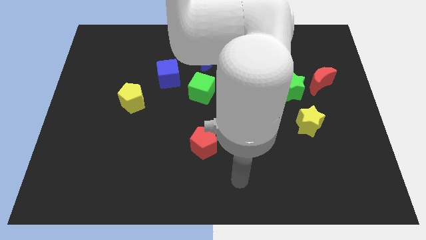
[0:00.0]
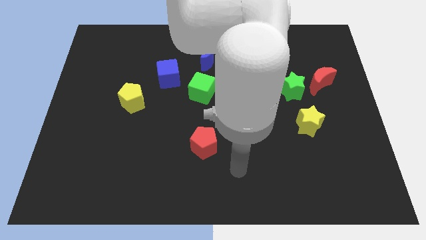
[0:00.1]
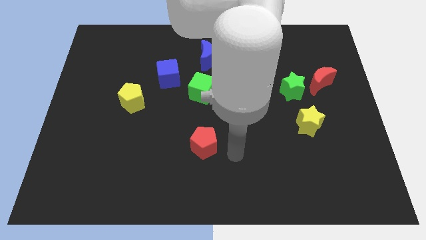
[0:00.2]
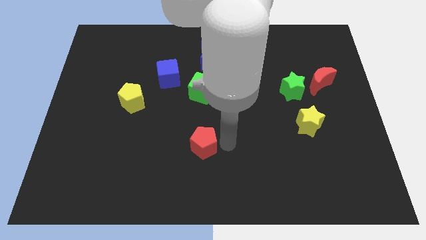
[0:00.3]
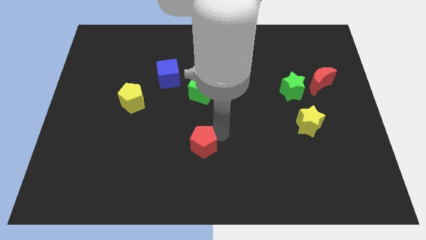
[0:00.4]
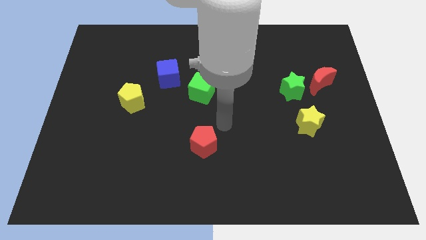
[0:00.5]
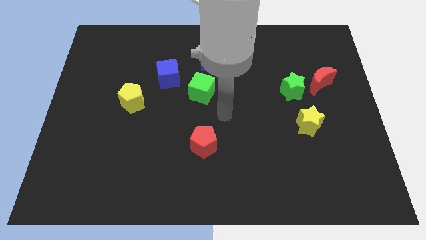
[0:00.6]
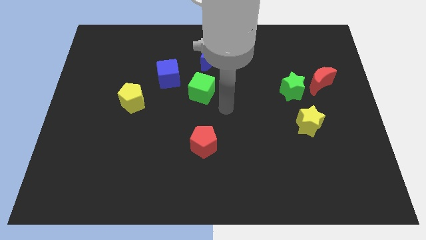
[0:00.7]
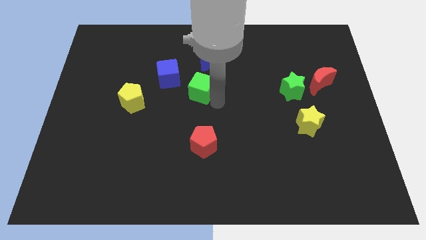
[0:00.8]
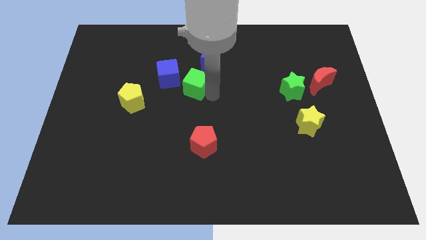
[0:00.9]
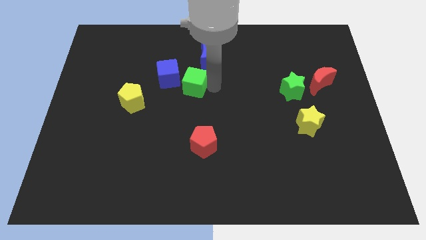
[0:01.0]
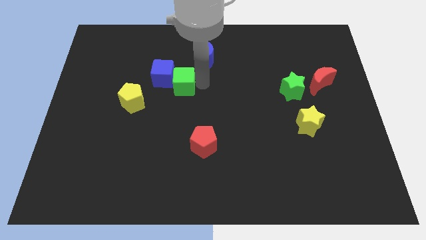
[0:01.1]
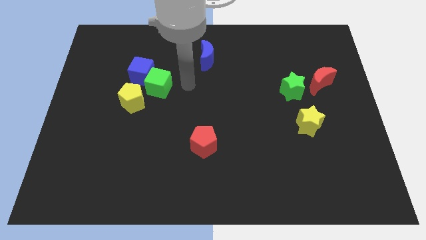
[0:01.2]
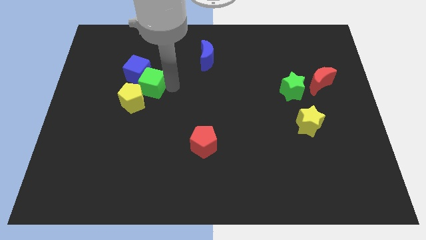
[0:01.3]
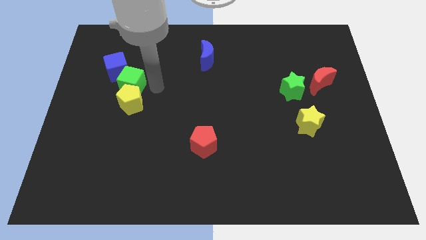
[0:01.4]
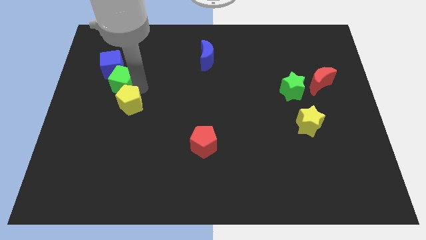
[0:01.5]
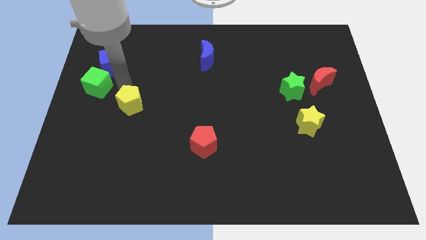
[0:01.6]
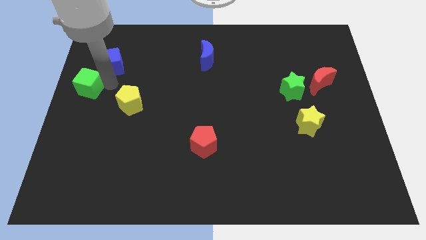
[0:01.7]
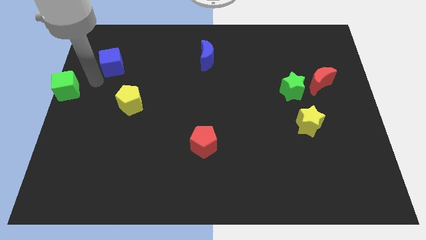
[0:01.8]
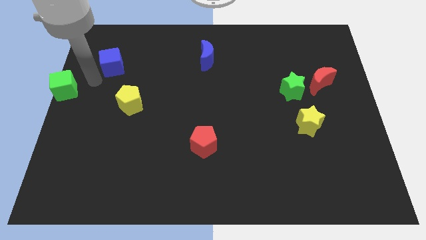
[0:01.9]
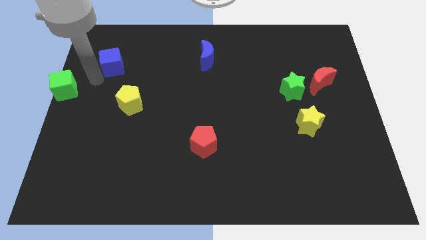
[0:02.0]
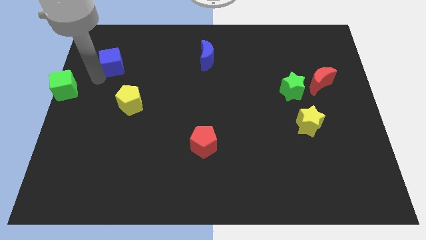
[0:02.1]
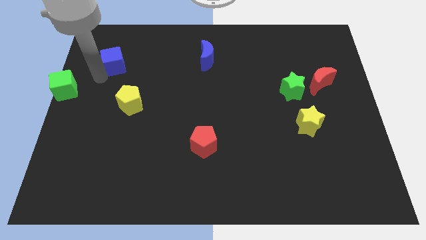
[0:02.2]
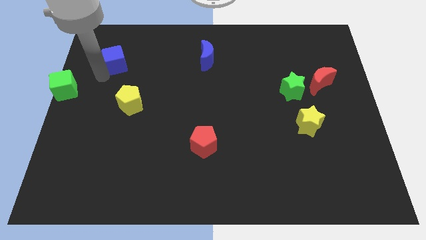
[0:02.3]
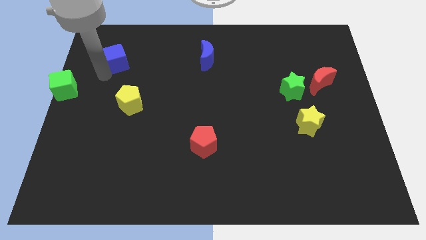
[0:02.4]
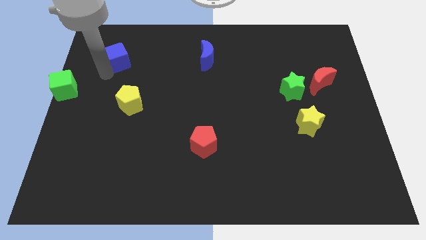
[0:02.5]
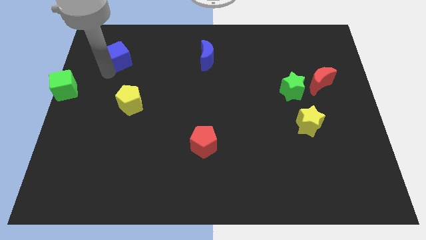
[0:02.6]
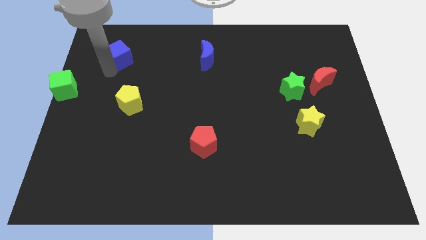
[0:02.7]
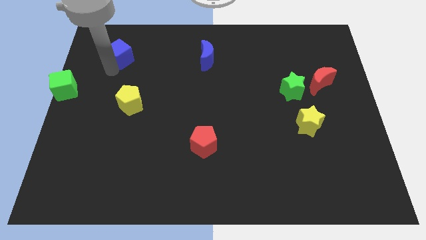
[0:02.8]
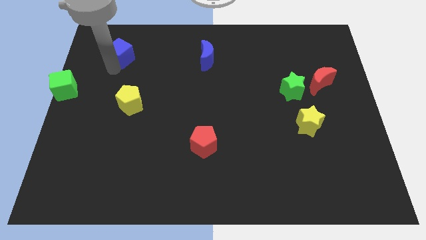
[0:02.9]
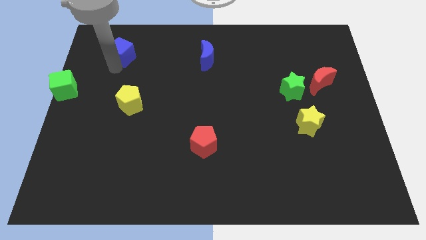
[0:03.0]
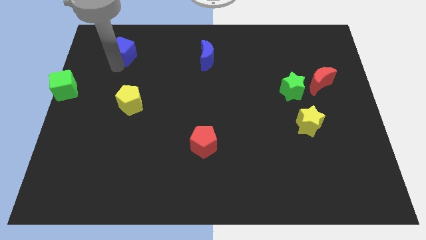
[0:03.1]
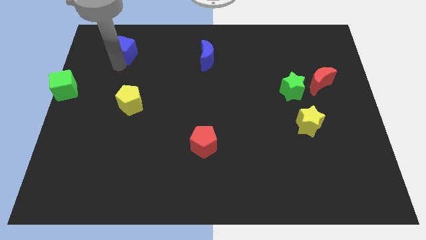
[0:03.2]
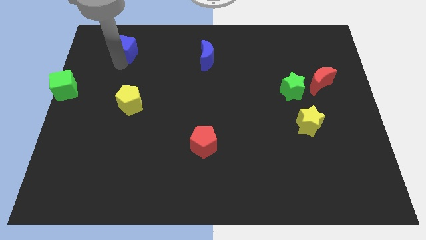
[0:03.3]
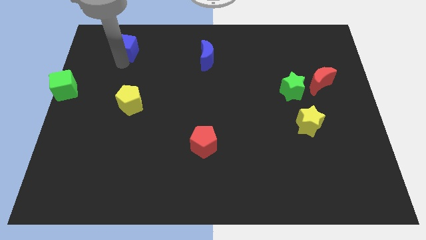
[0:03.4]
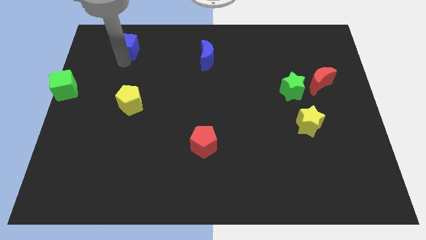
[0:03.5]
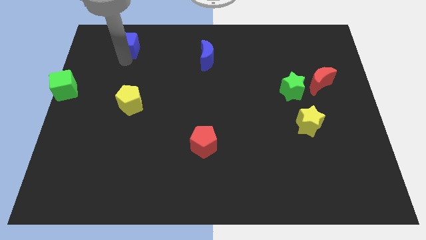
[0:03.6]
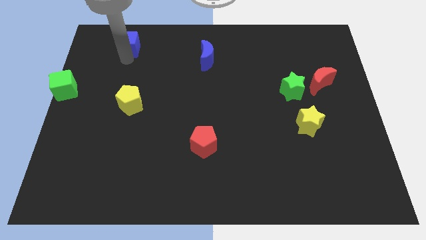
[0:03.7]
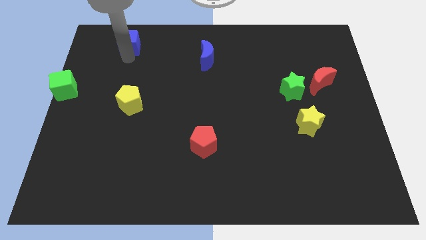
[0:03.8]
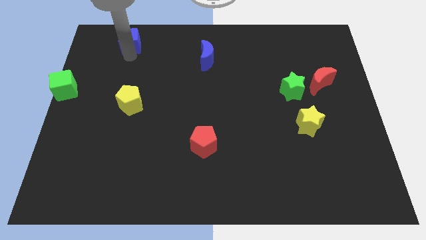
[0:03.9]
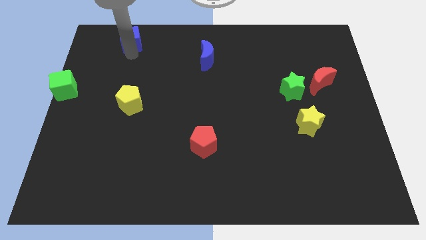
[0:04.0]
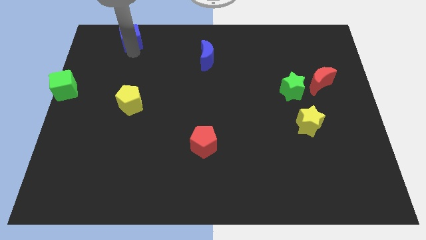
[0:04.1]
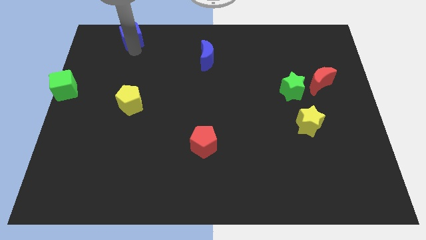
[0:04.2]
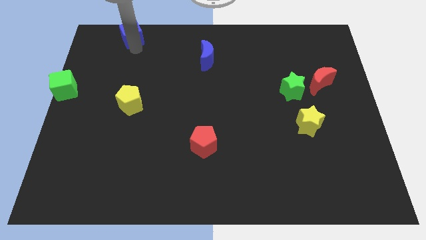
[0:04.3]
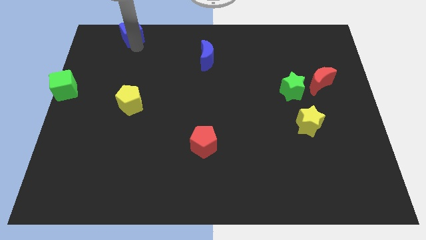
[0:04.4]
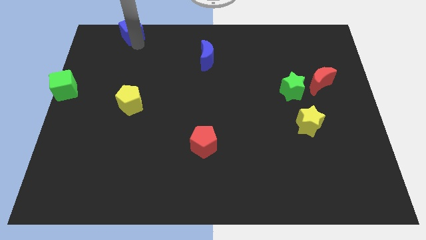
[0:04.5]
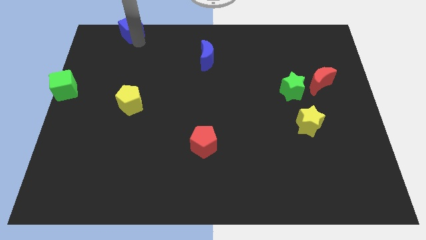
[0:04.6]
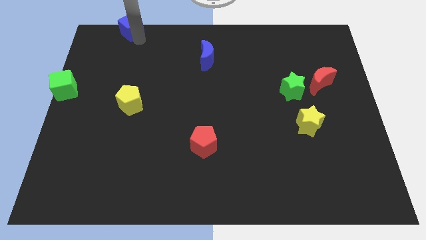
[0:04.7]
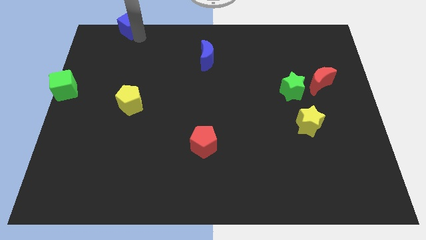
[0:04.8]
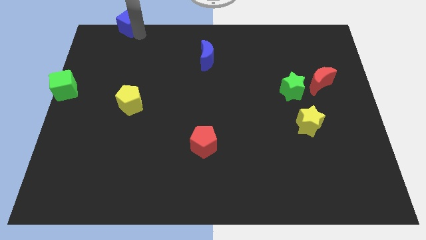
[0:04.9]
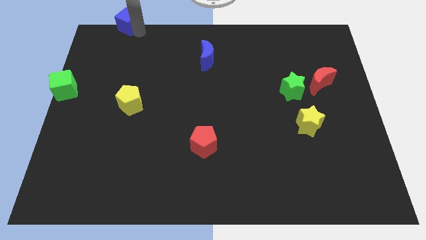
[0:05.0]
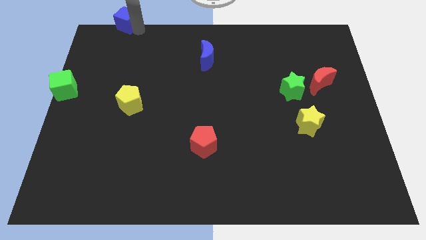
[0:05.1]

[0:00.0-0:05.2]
push the blue cube to the upper left corner

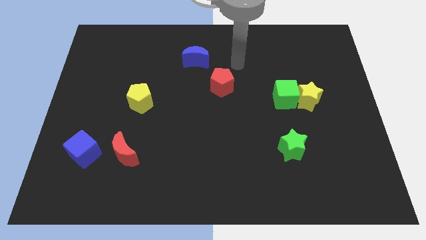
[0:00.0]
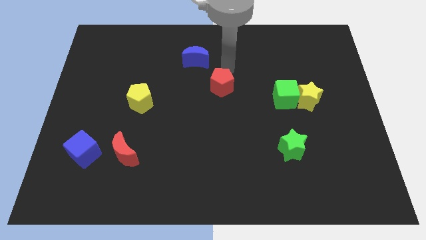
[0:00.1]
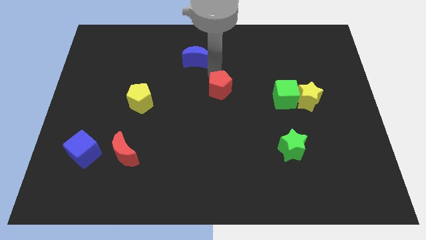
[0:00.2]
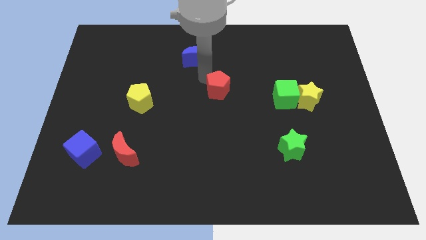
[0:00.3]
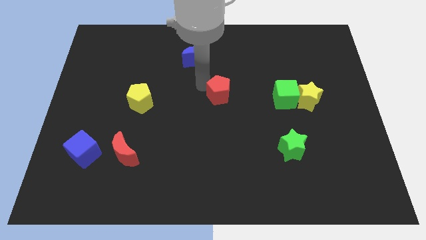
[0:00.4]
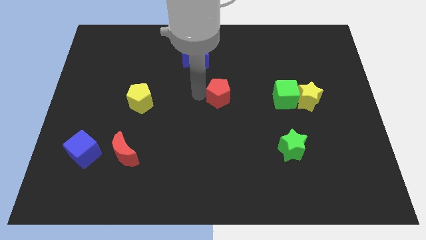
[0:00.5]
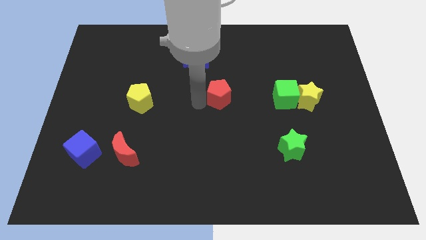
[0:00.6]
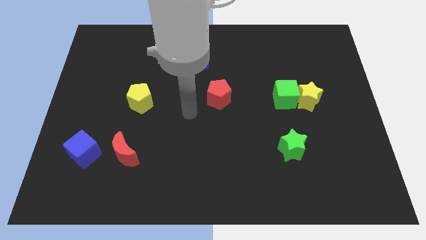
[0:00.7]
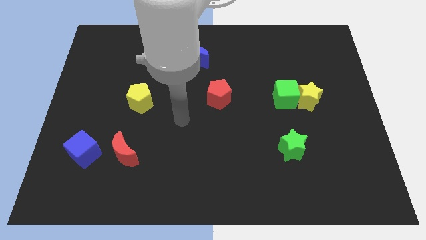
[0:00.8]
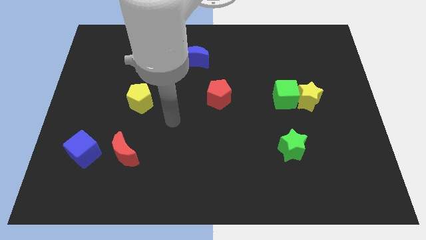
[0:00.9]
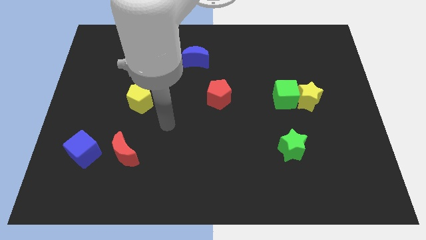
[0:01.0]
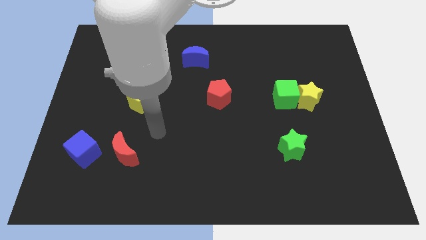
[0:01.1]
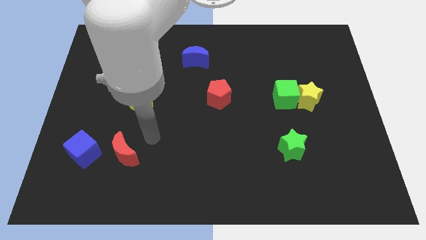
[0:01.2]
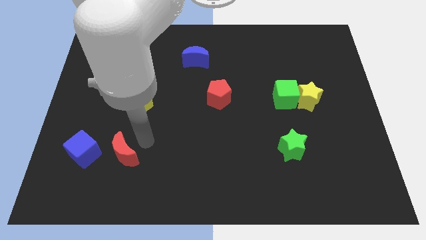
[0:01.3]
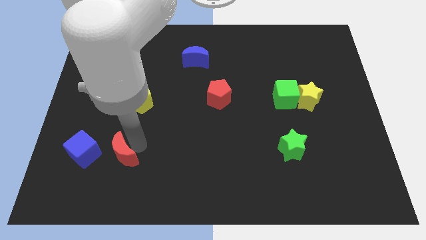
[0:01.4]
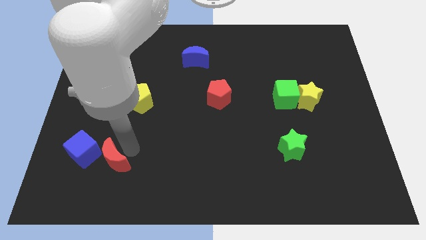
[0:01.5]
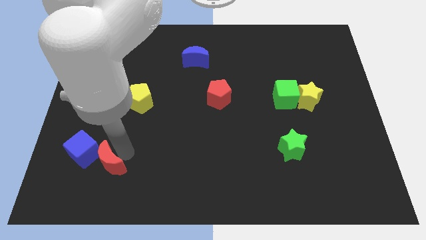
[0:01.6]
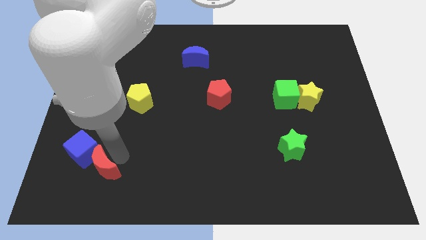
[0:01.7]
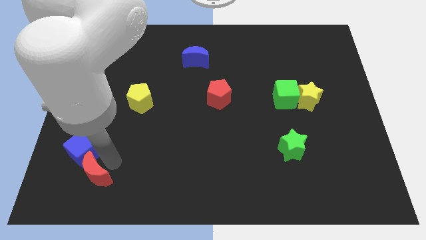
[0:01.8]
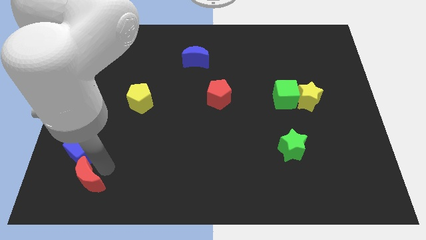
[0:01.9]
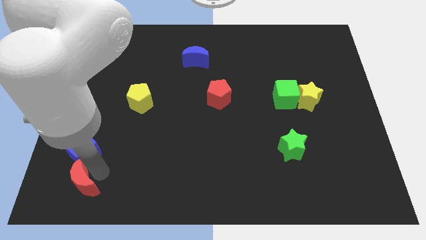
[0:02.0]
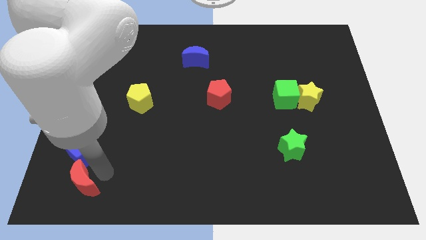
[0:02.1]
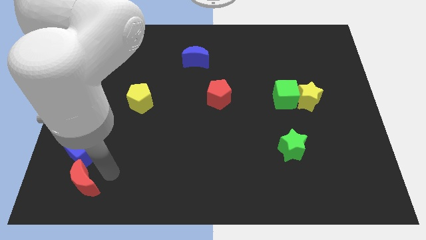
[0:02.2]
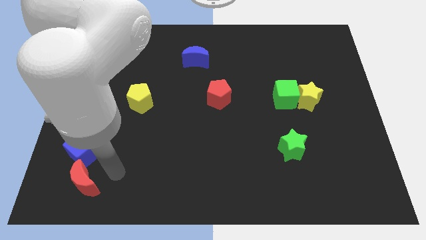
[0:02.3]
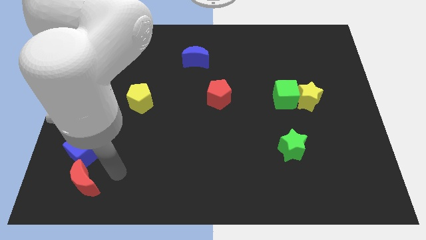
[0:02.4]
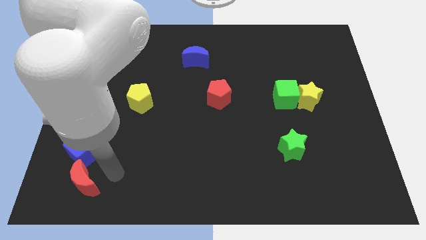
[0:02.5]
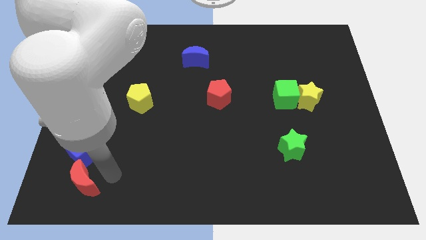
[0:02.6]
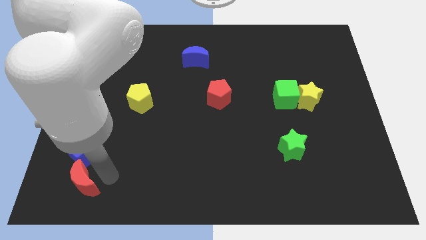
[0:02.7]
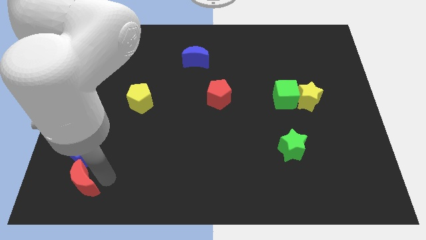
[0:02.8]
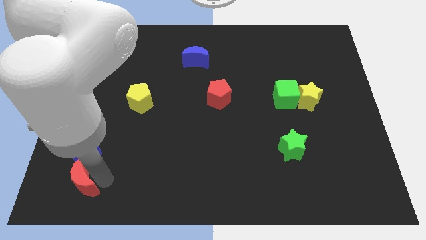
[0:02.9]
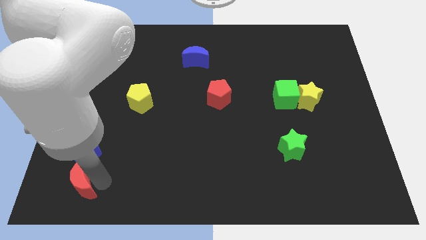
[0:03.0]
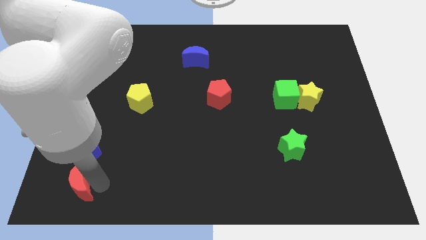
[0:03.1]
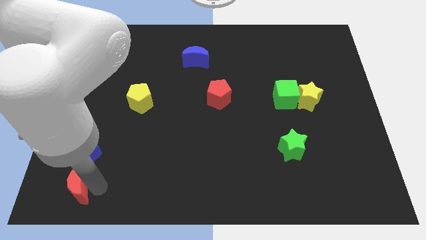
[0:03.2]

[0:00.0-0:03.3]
put the red moon to the bottom left
